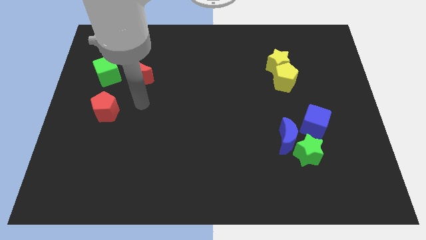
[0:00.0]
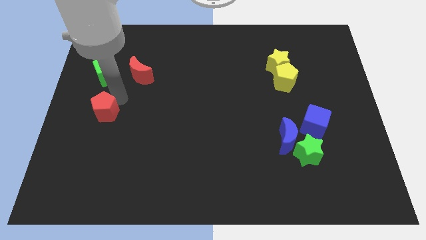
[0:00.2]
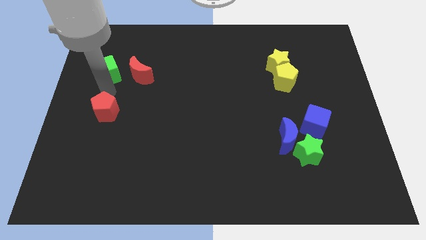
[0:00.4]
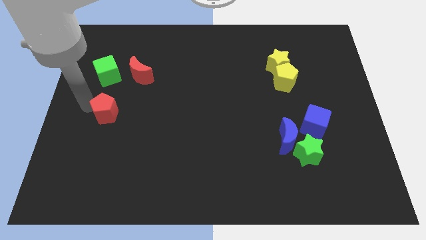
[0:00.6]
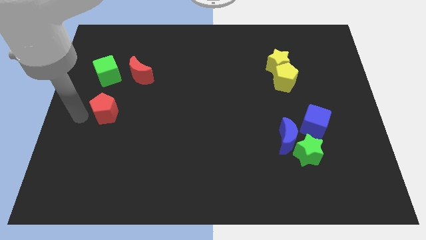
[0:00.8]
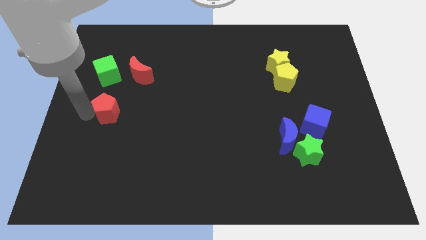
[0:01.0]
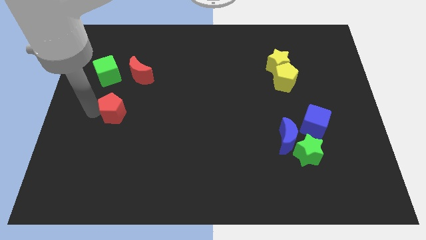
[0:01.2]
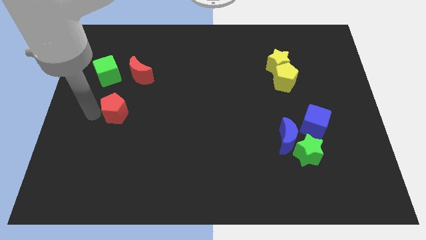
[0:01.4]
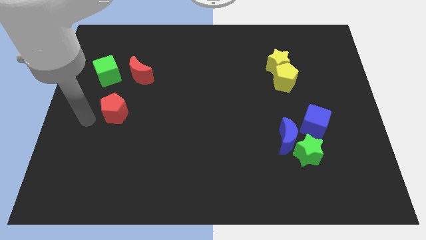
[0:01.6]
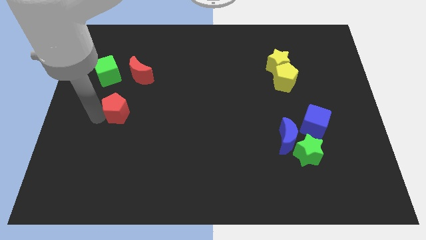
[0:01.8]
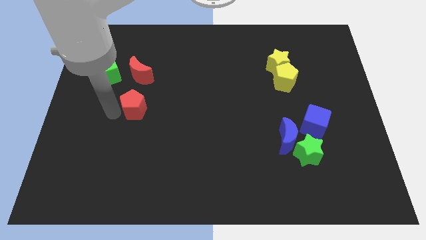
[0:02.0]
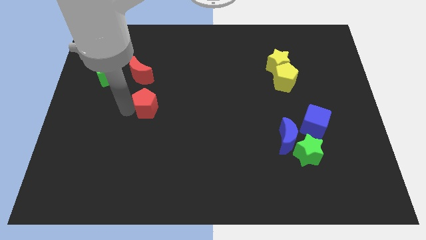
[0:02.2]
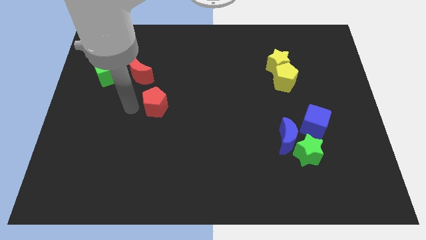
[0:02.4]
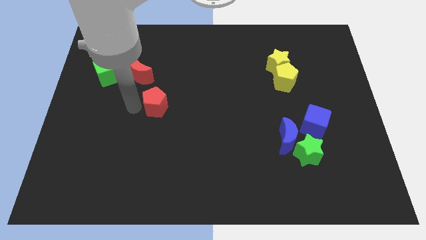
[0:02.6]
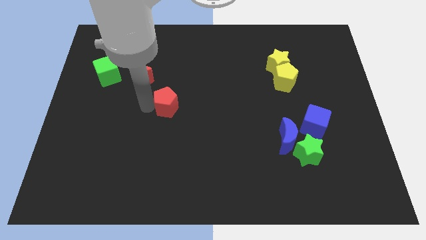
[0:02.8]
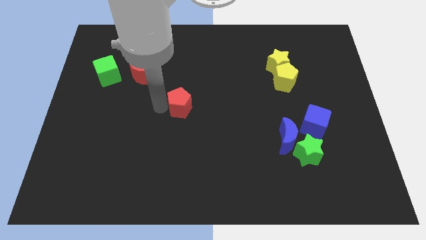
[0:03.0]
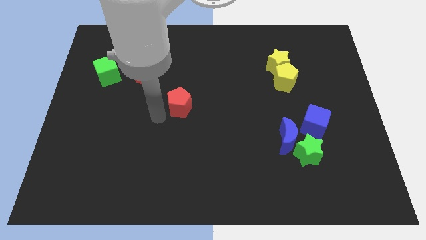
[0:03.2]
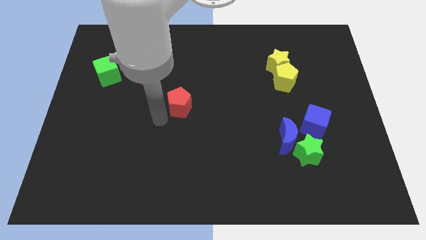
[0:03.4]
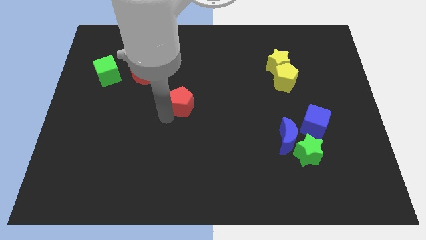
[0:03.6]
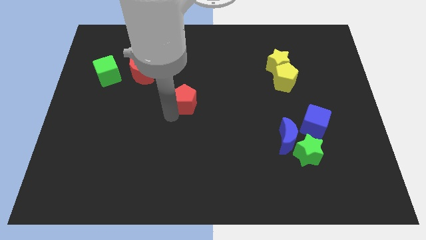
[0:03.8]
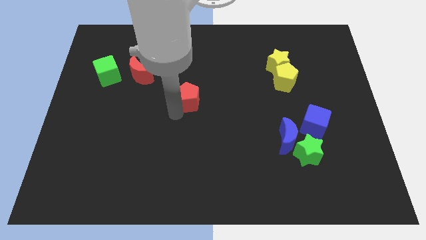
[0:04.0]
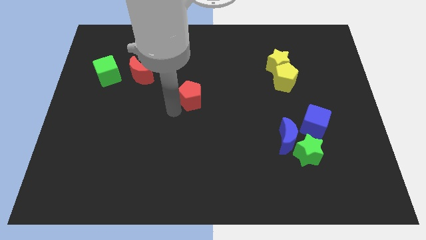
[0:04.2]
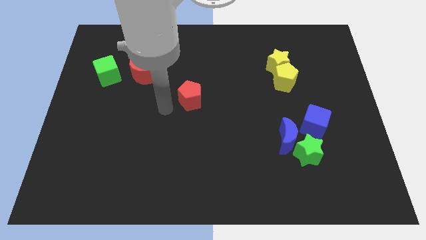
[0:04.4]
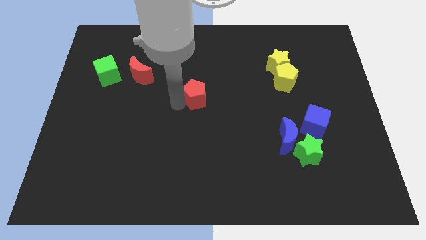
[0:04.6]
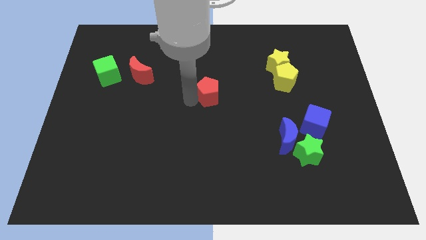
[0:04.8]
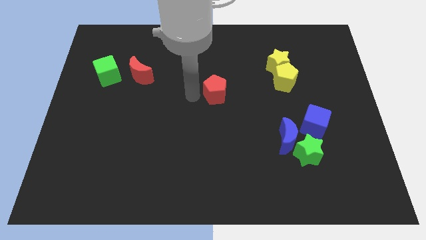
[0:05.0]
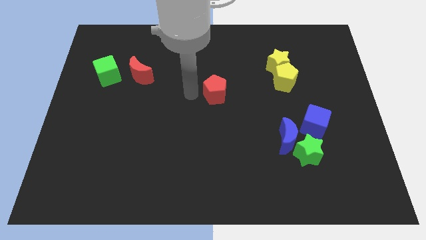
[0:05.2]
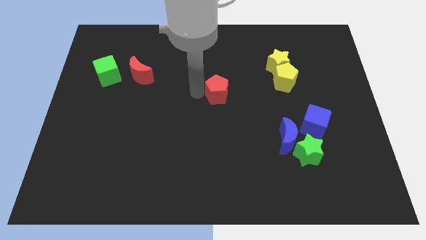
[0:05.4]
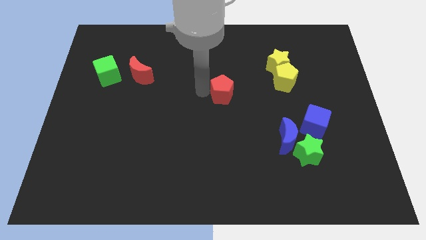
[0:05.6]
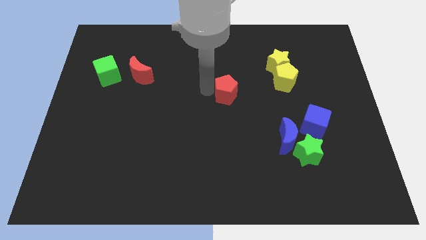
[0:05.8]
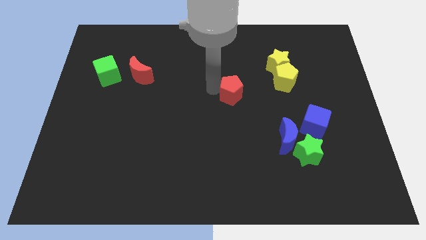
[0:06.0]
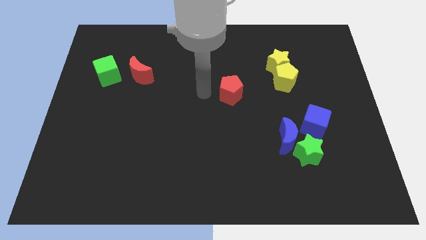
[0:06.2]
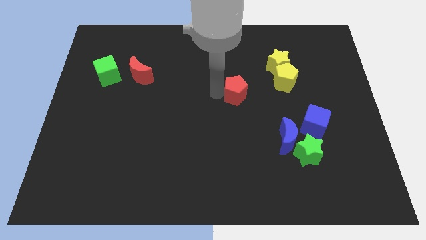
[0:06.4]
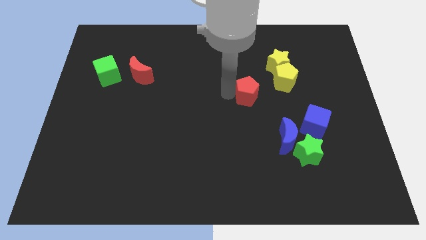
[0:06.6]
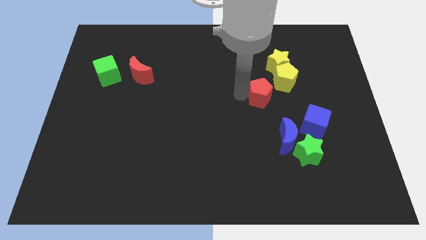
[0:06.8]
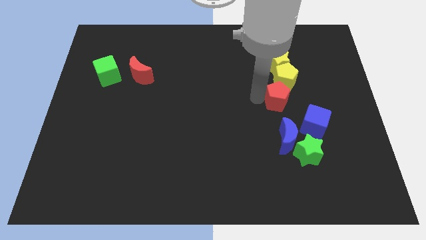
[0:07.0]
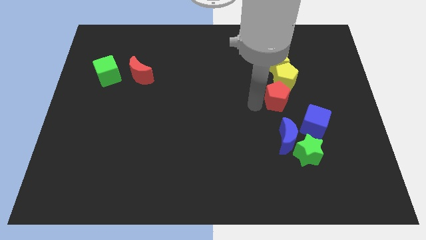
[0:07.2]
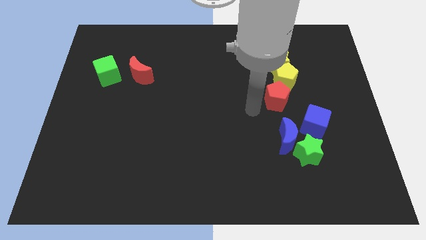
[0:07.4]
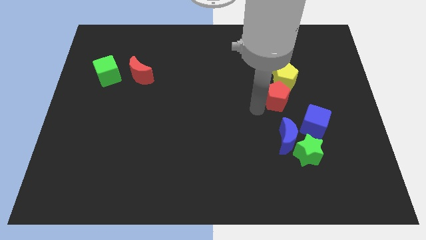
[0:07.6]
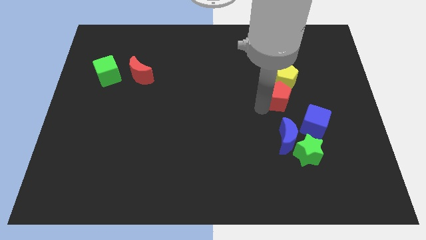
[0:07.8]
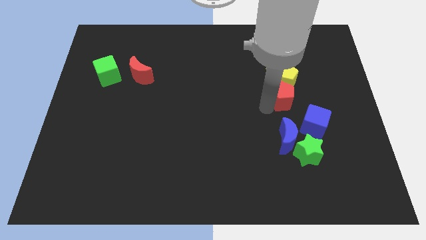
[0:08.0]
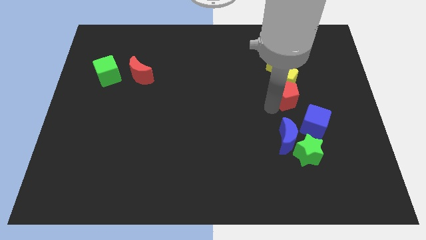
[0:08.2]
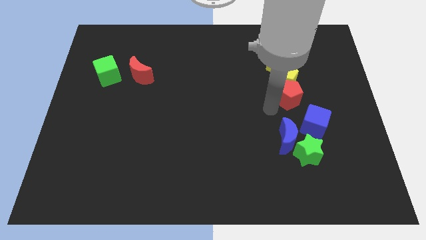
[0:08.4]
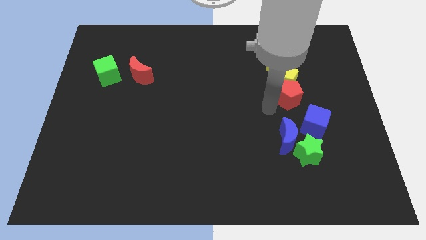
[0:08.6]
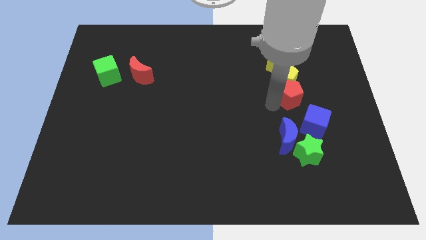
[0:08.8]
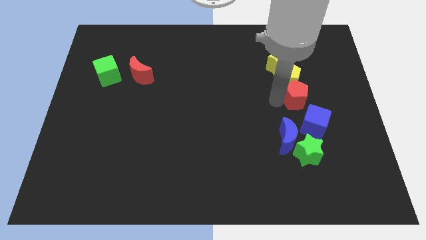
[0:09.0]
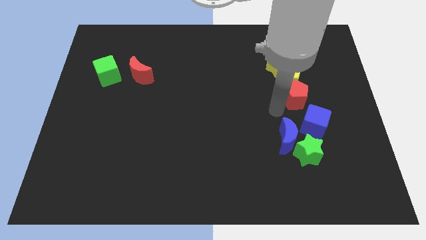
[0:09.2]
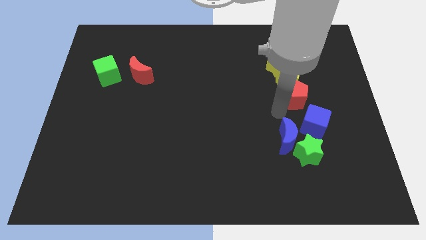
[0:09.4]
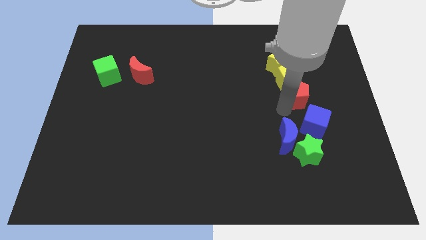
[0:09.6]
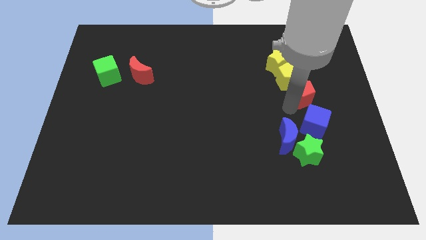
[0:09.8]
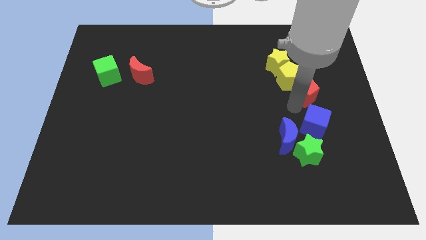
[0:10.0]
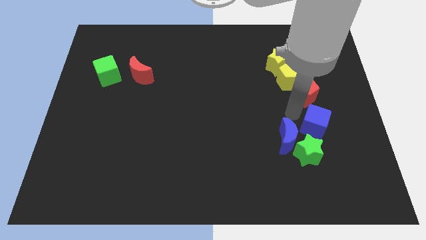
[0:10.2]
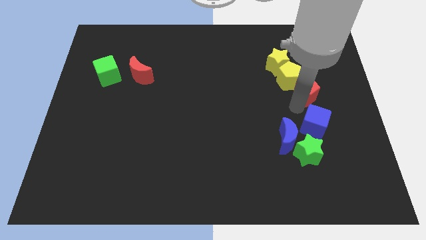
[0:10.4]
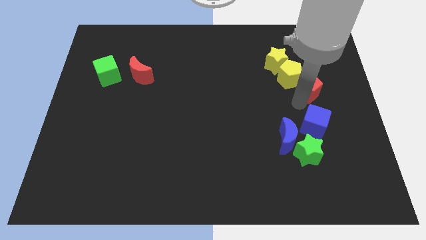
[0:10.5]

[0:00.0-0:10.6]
move the red pentagon to the right of the yellow pentagon
